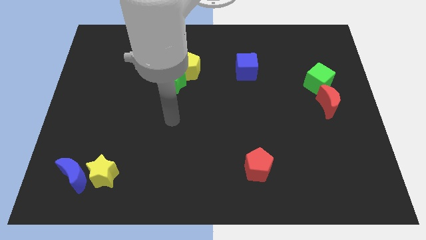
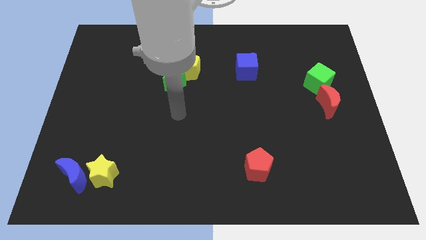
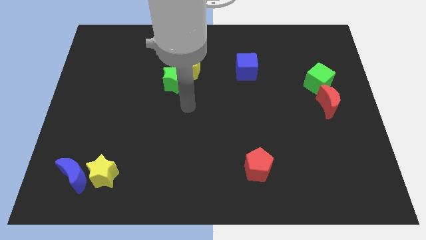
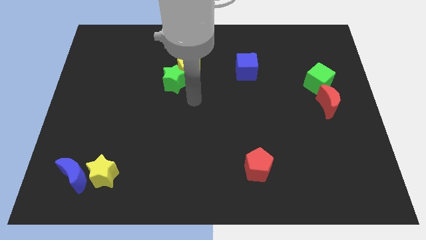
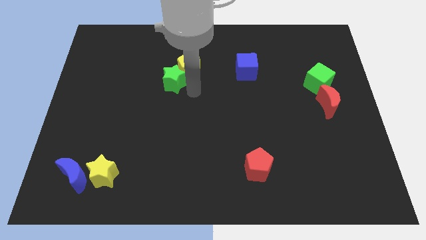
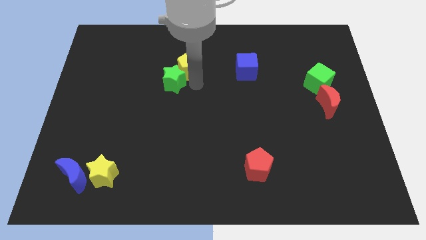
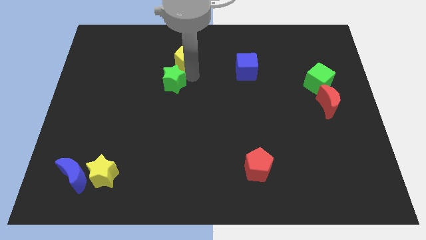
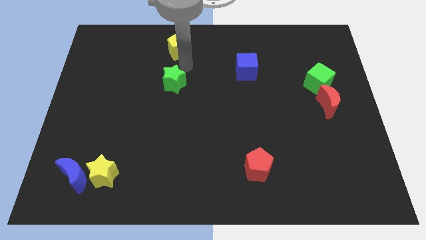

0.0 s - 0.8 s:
pull the green star apart from the yellow pentagon

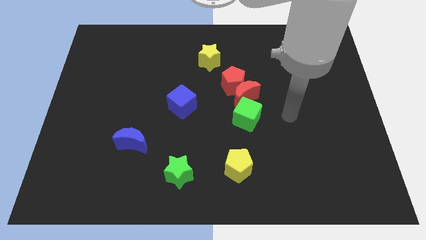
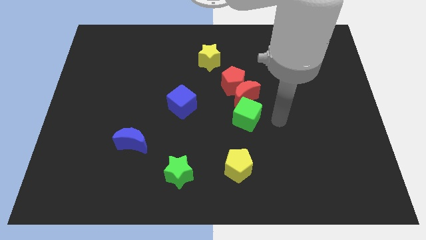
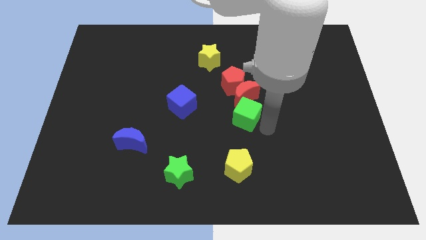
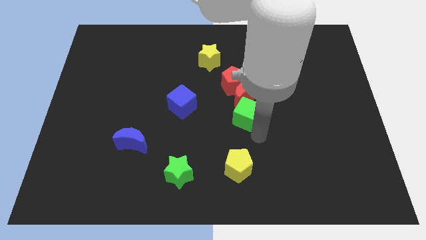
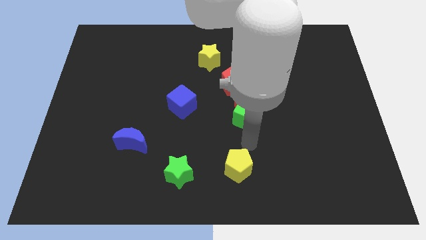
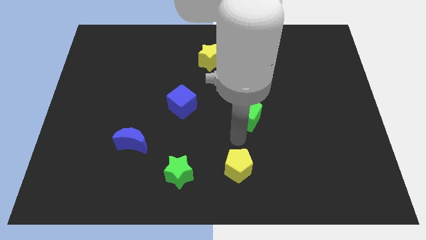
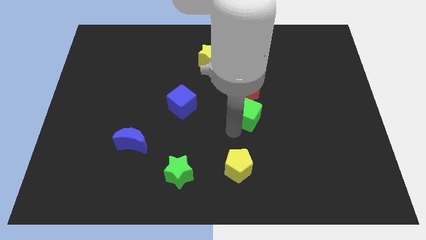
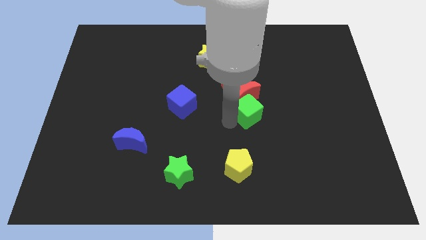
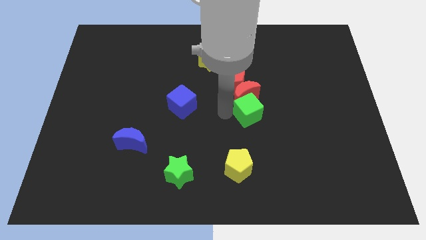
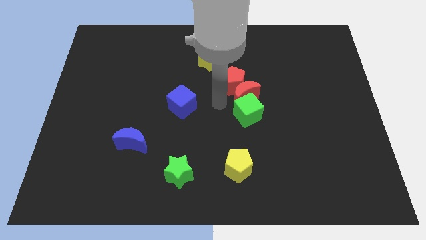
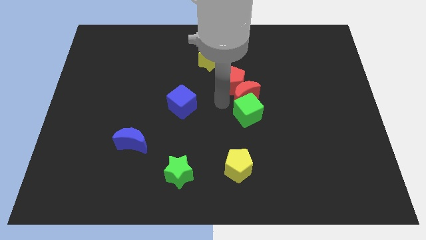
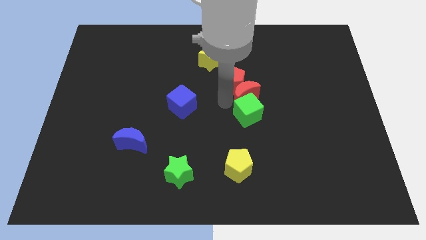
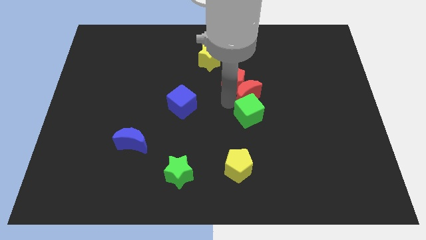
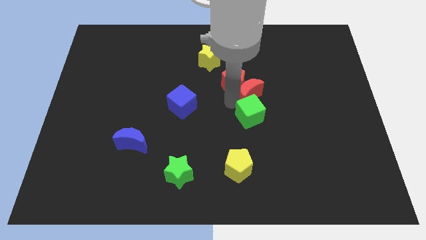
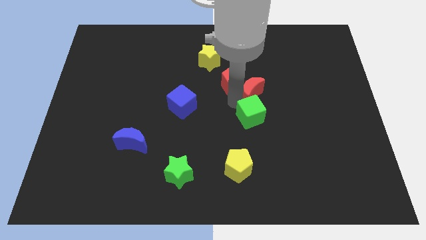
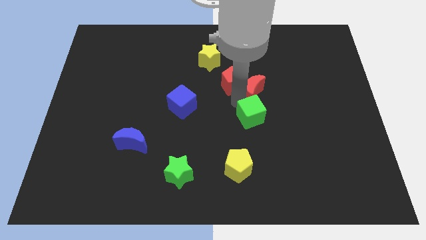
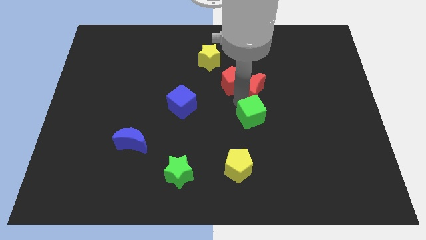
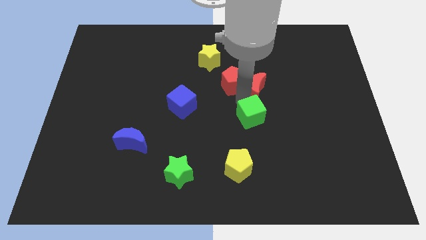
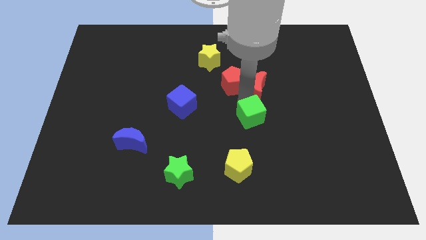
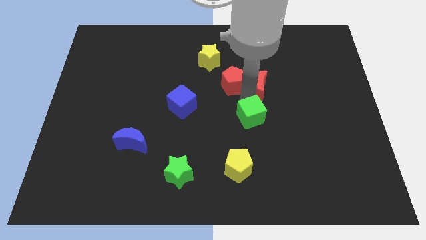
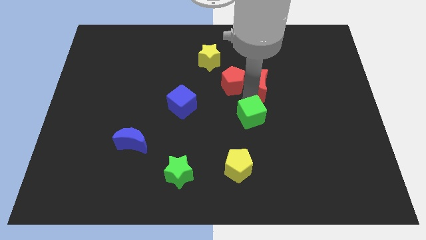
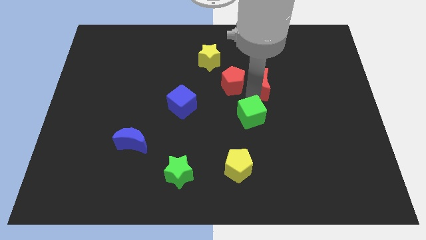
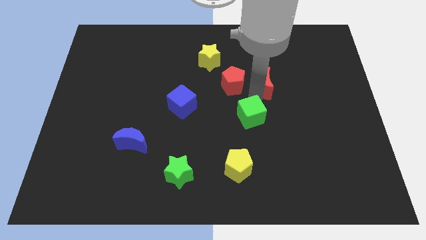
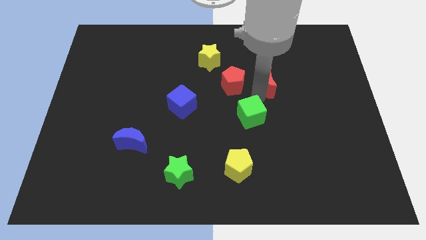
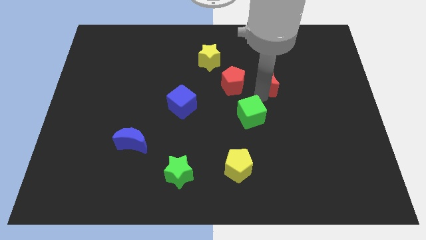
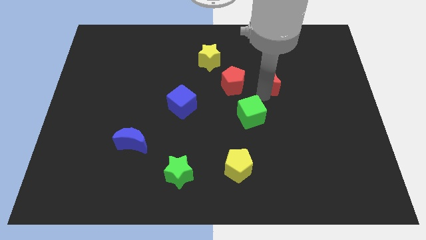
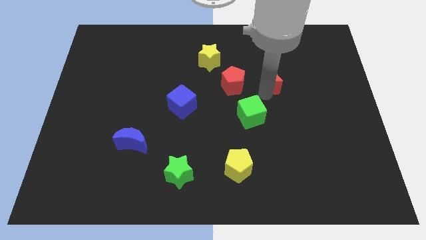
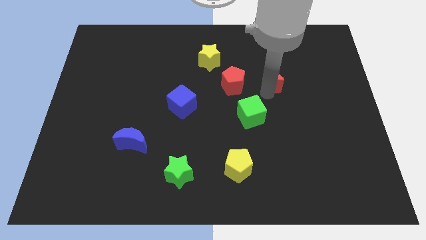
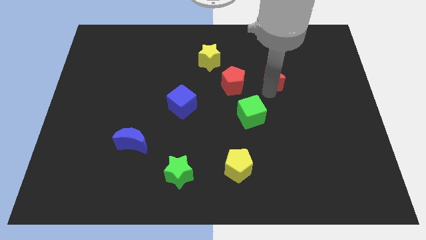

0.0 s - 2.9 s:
separate the red moon from the red pentagon and green cube

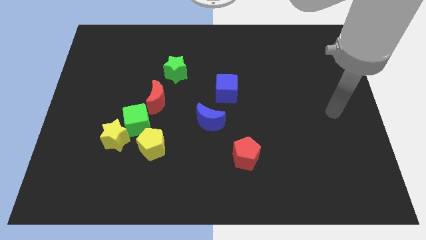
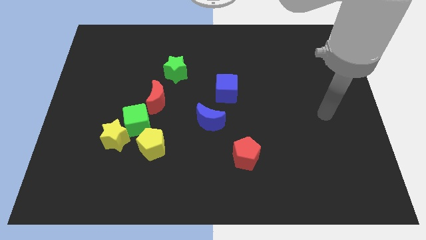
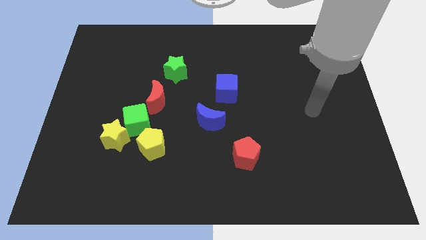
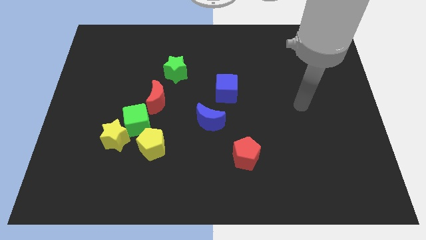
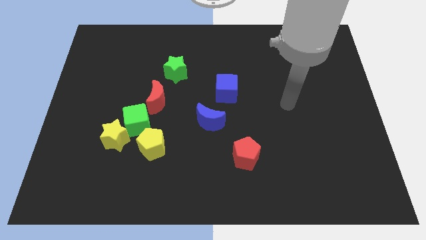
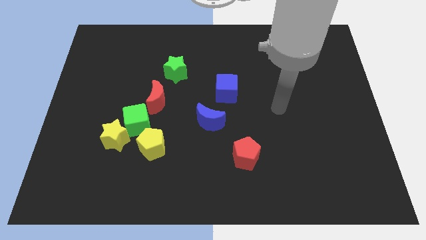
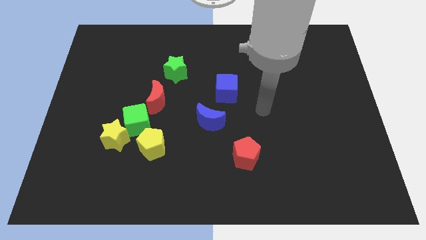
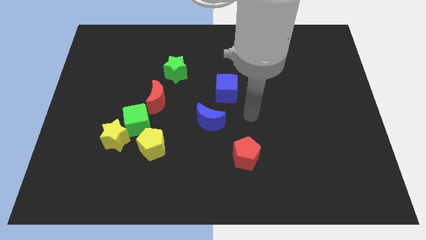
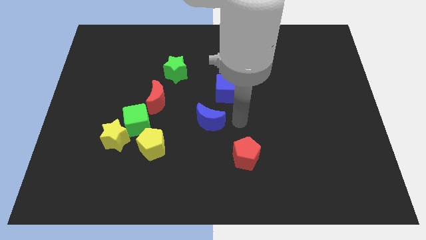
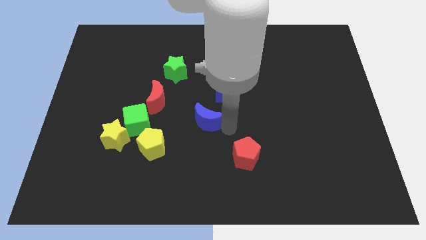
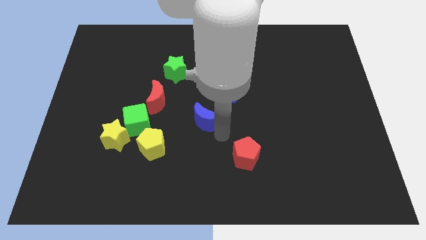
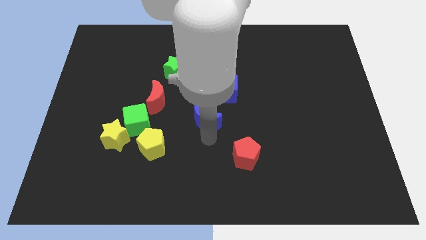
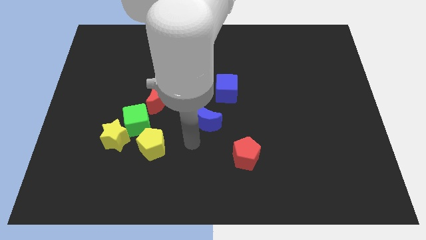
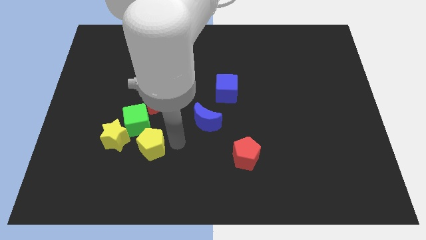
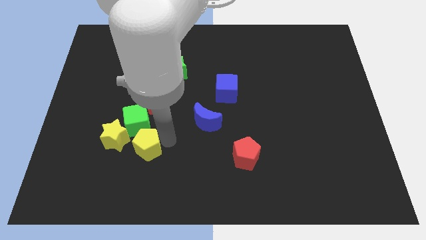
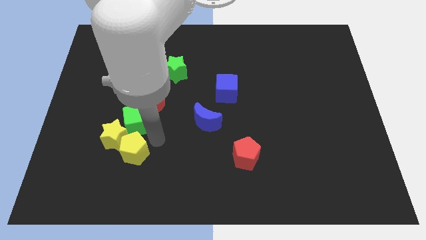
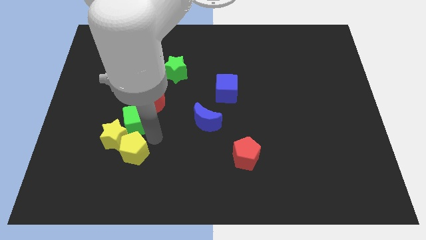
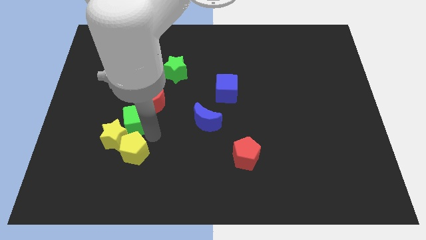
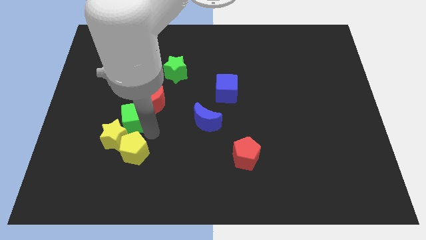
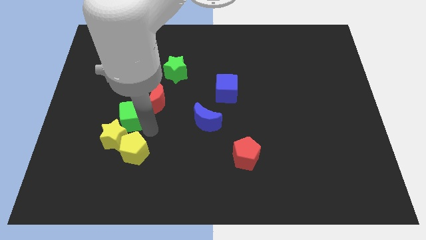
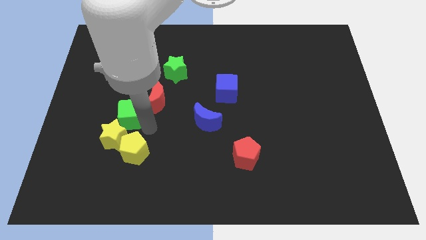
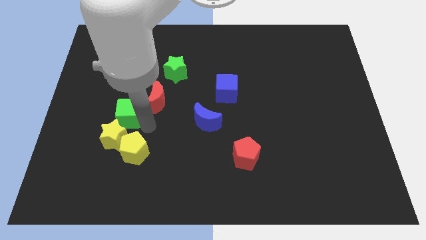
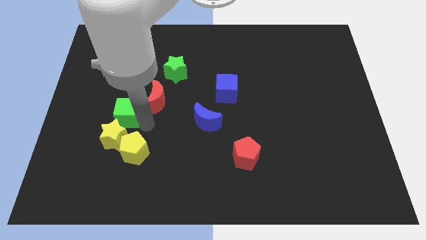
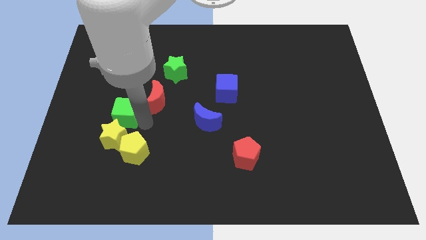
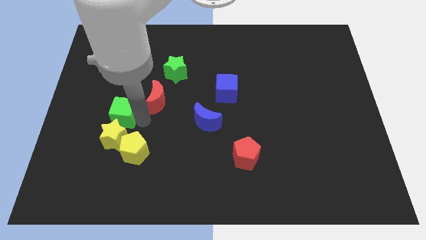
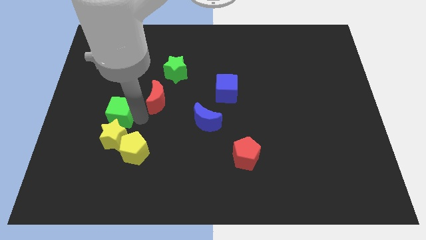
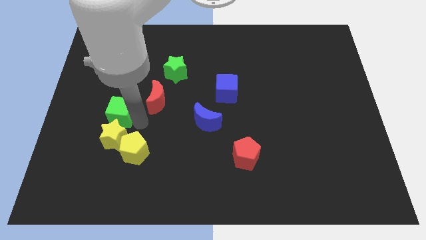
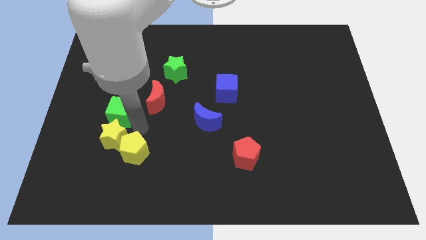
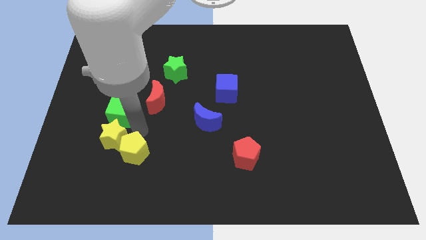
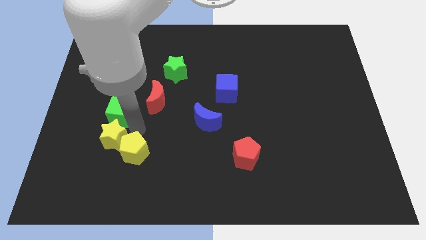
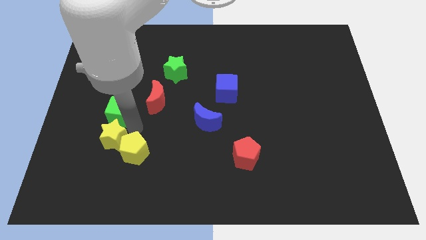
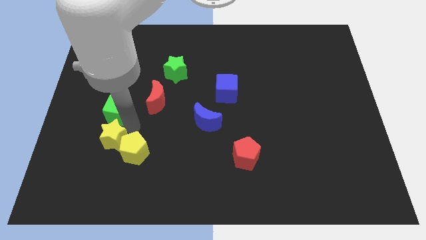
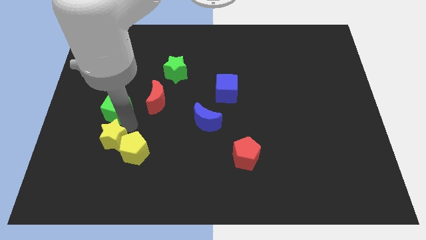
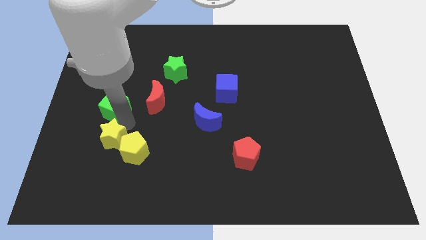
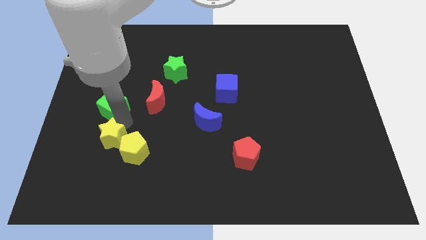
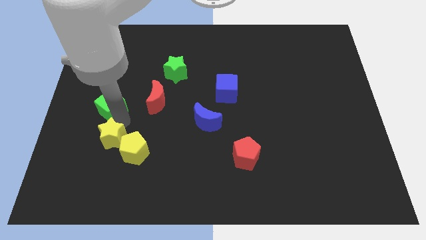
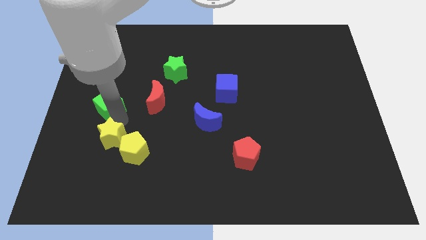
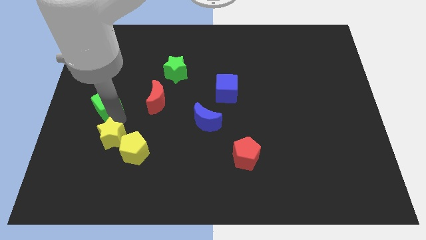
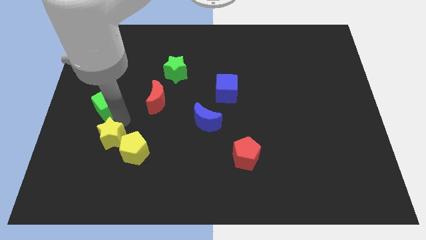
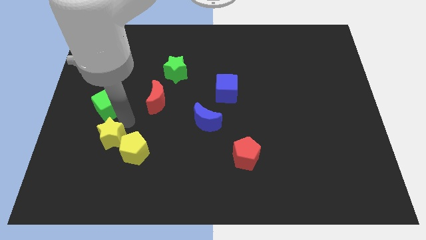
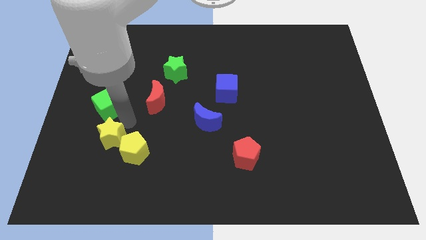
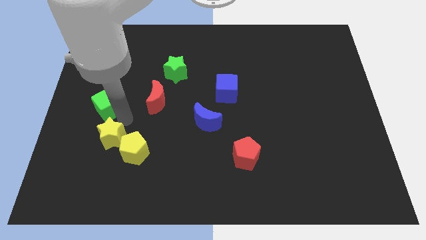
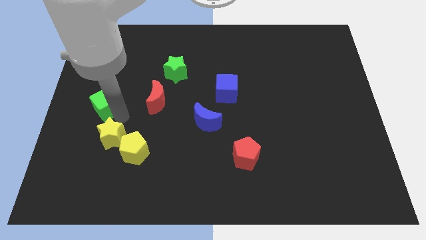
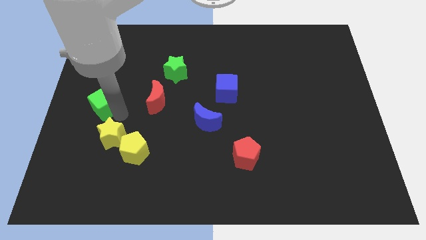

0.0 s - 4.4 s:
pull the green cube apart from the group

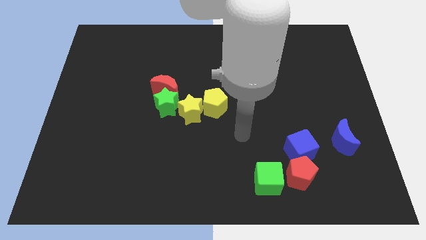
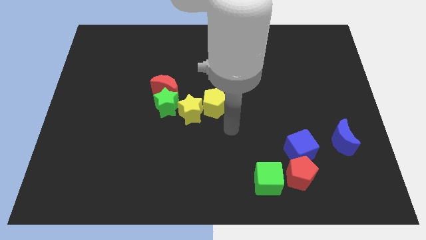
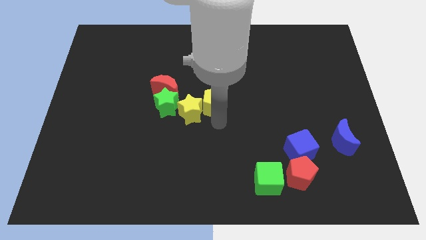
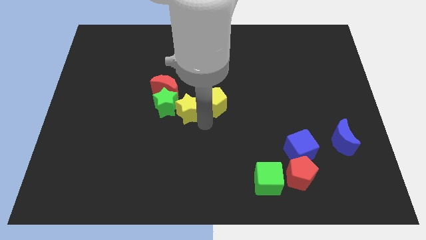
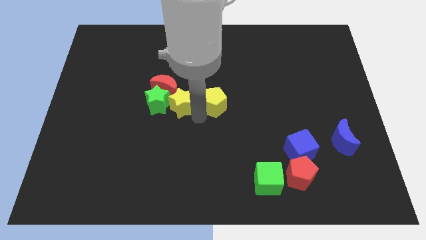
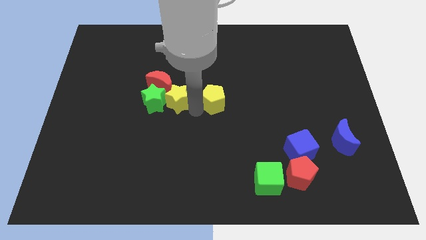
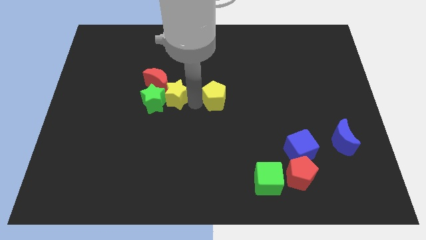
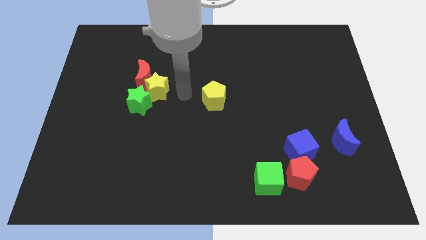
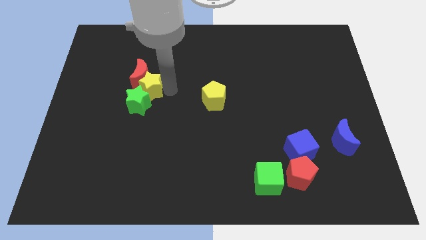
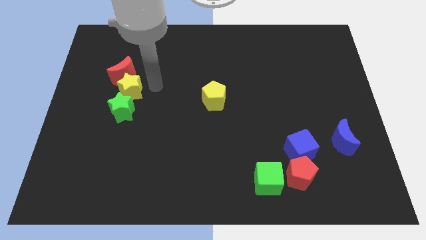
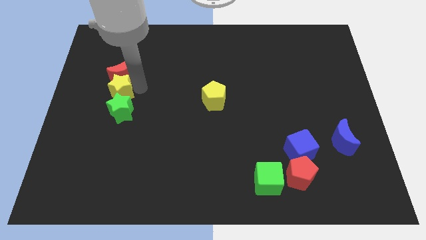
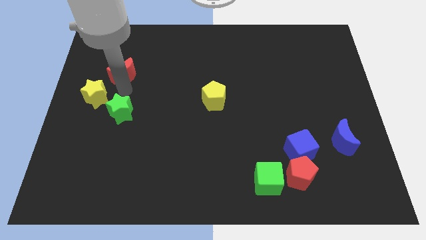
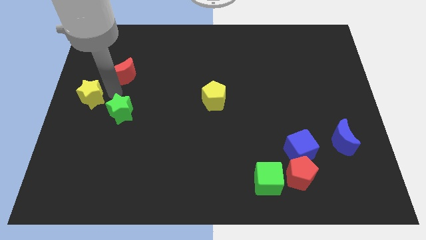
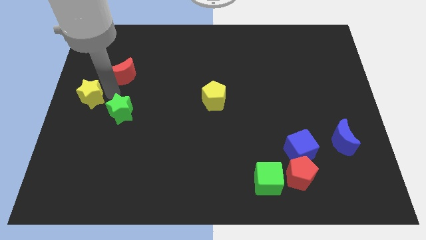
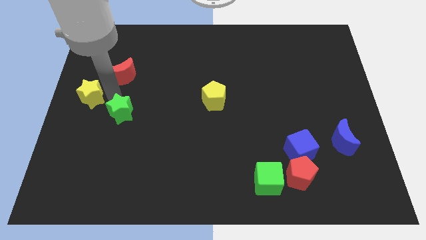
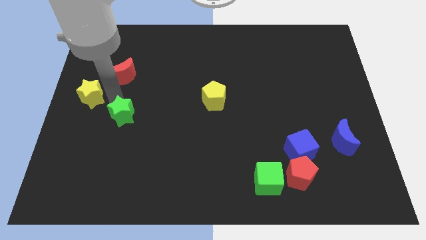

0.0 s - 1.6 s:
move the green star away from the red moon and yellow star
